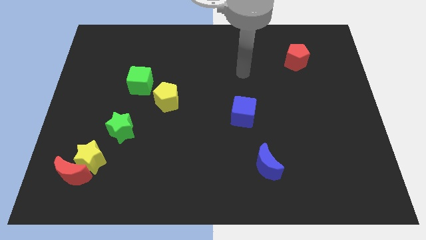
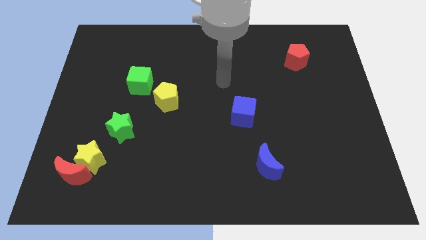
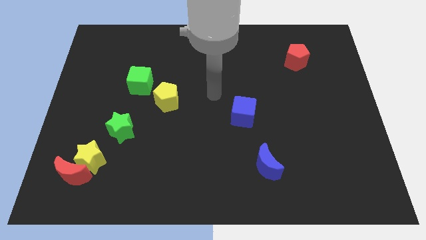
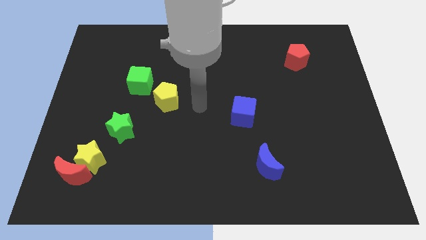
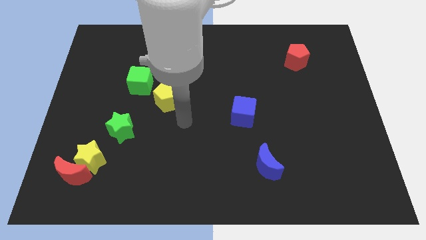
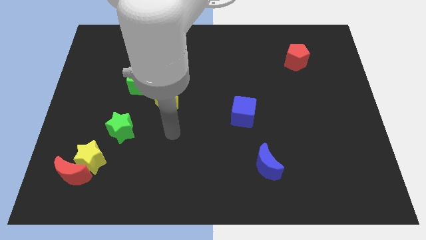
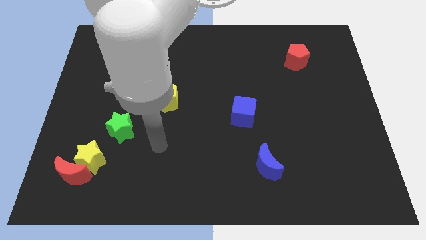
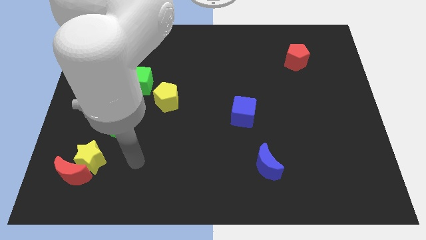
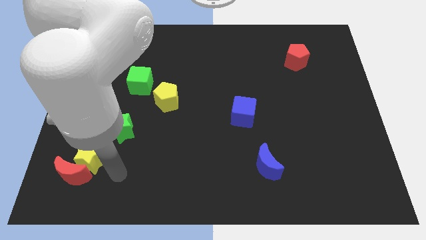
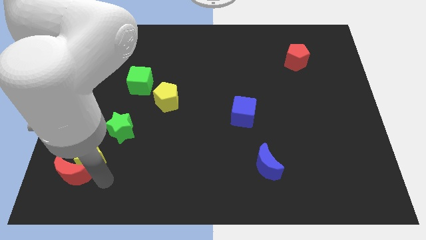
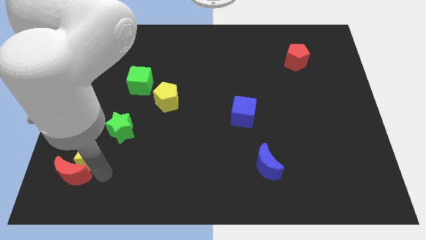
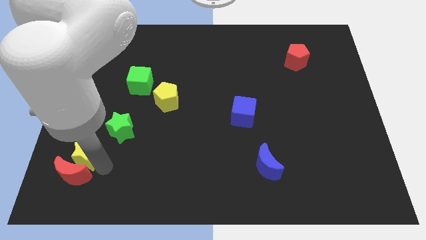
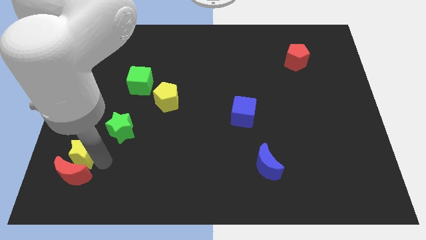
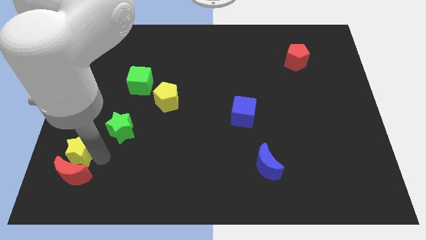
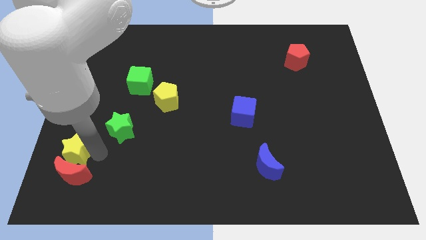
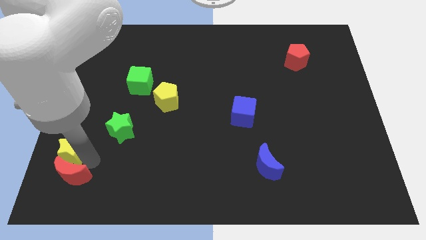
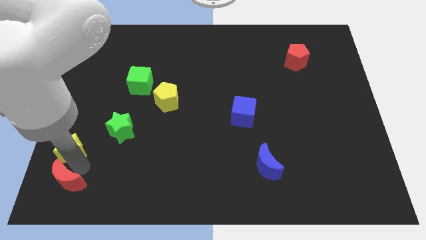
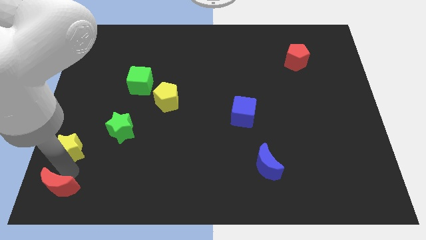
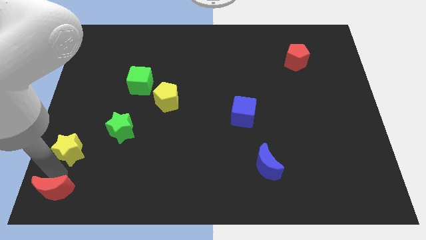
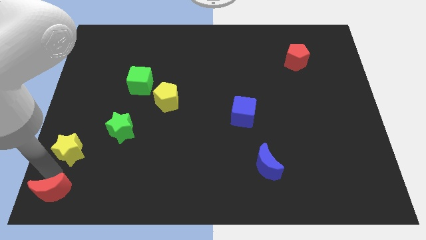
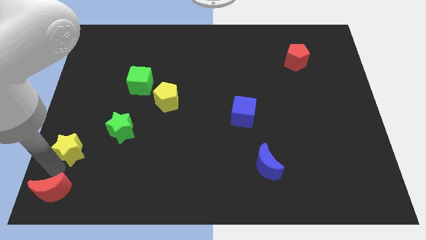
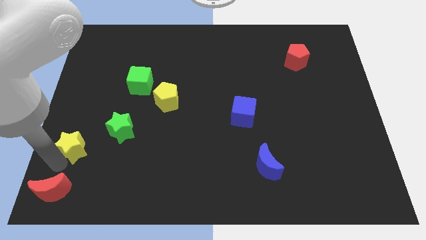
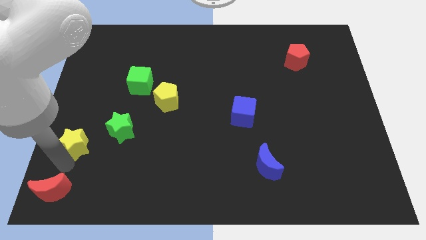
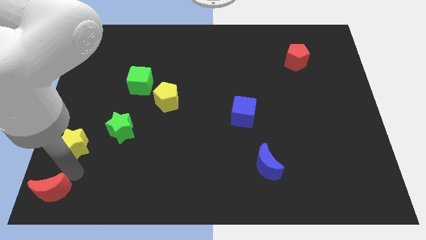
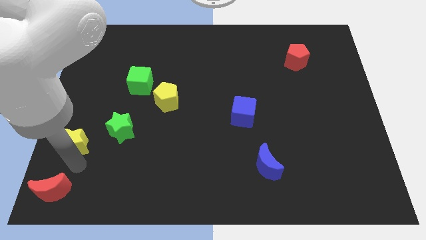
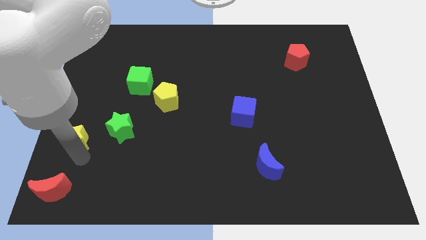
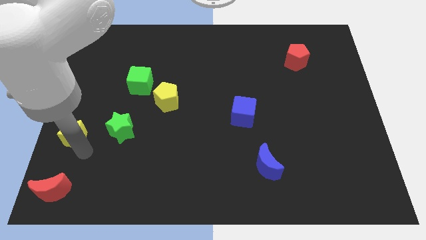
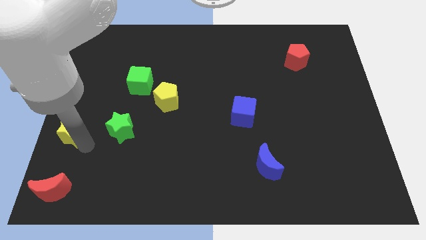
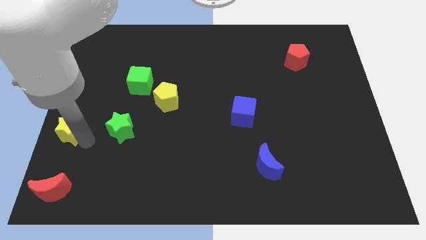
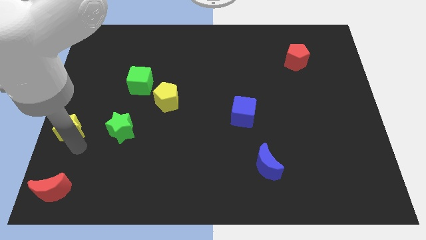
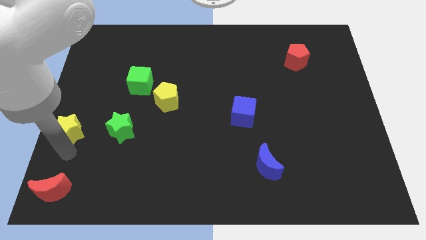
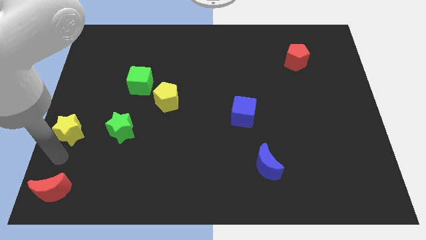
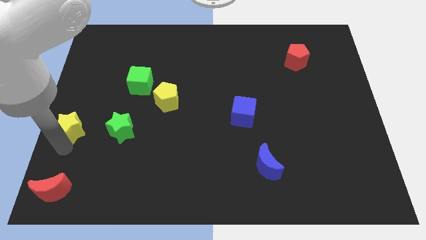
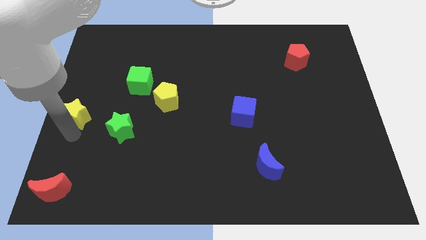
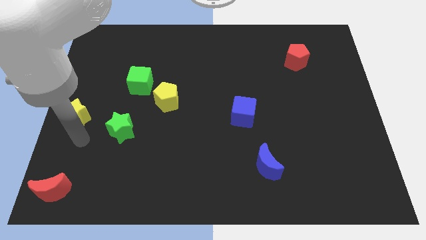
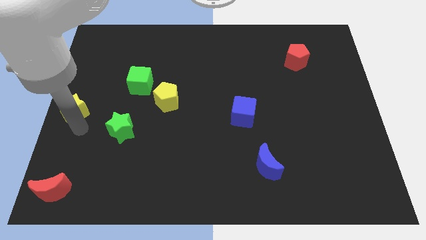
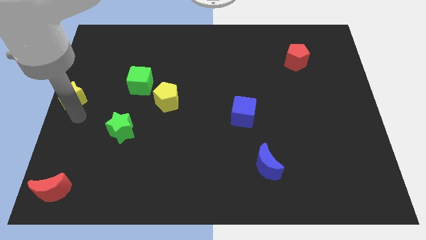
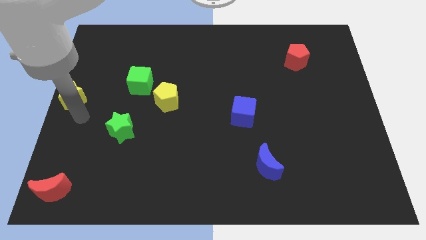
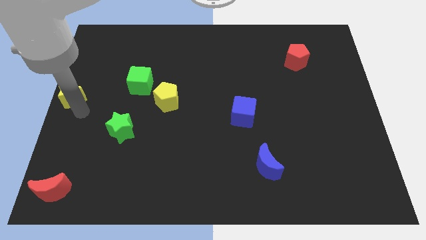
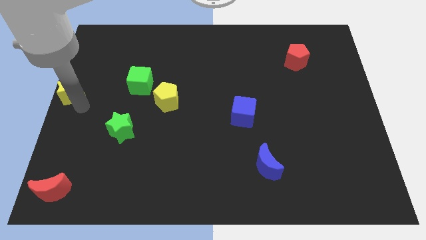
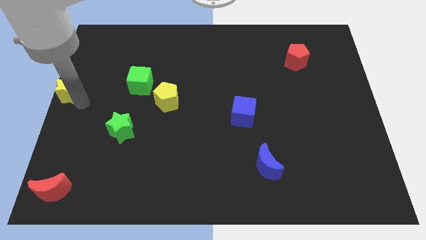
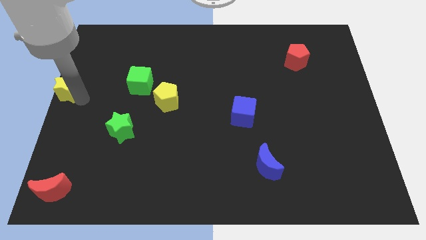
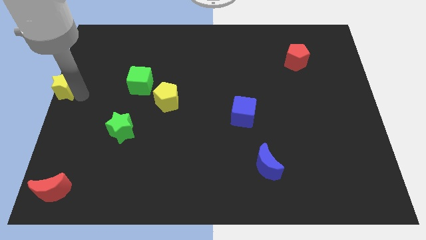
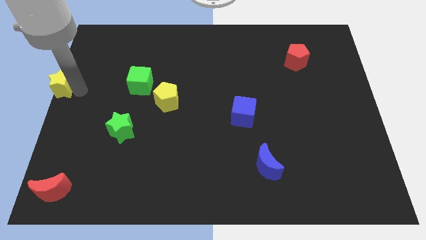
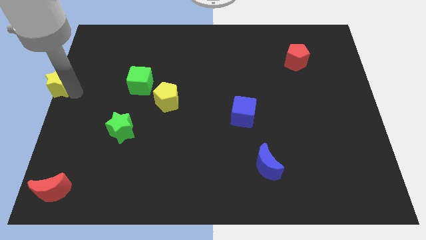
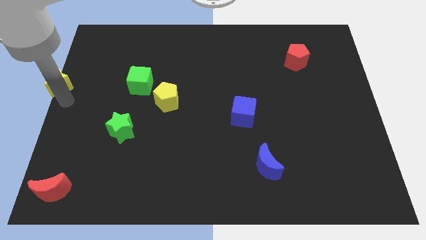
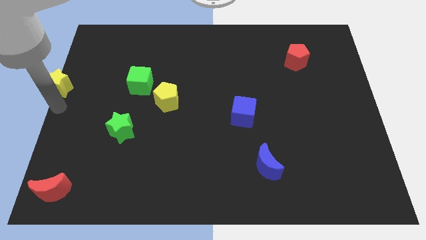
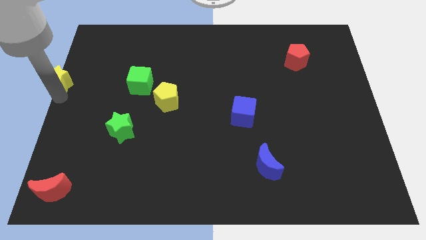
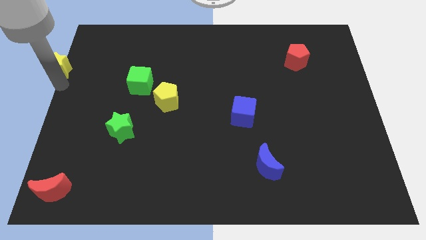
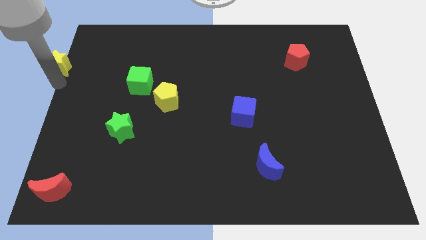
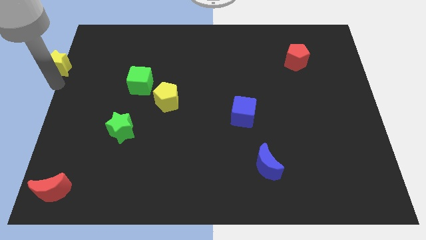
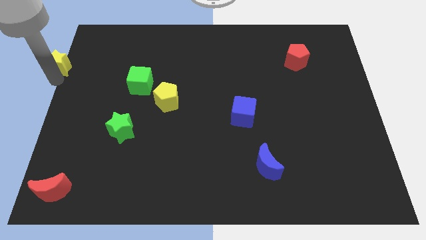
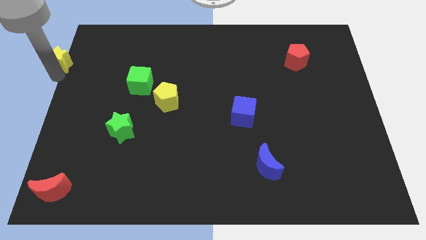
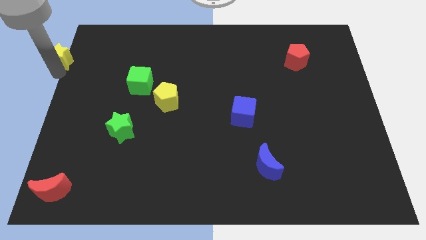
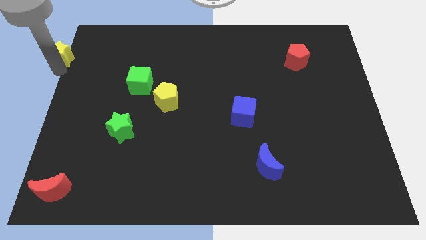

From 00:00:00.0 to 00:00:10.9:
move the yellow star to the upper left corner

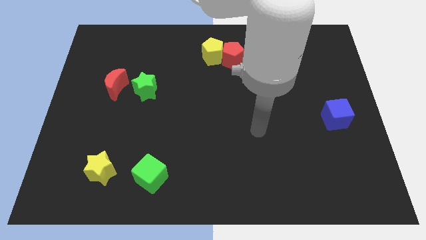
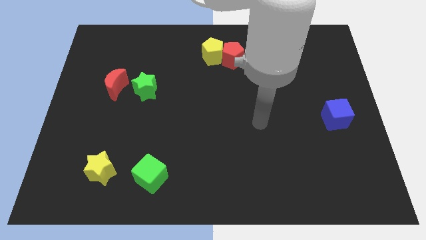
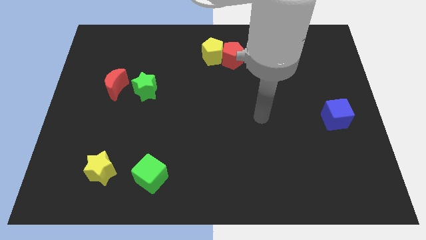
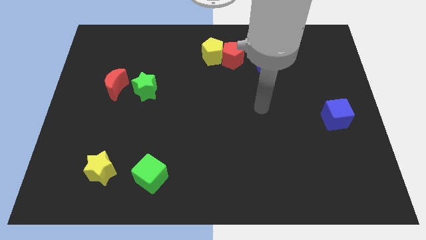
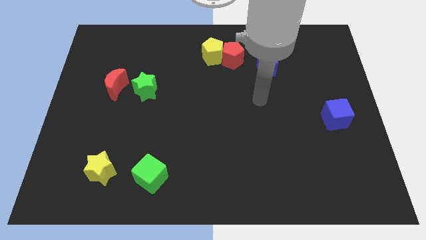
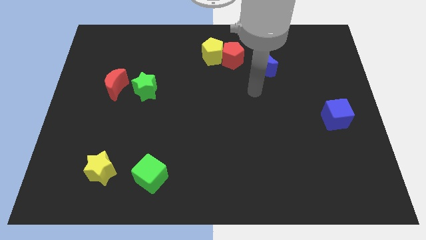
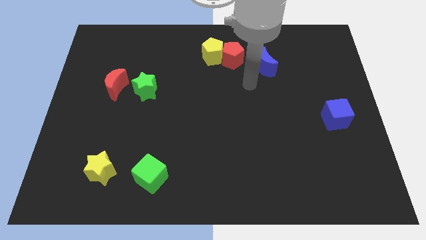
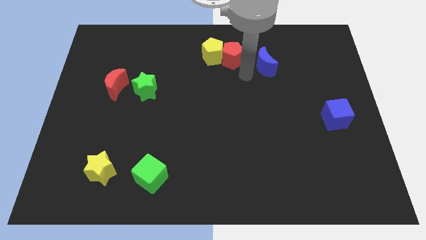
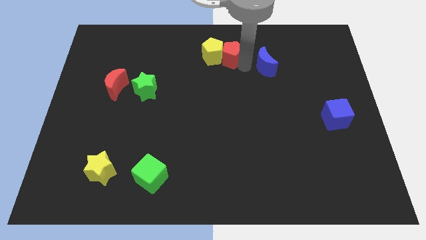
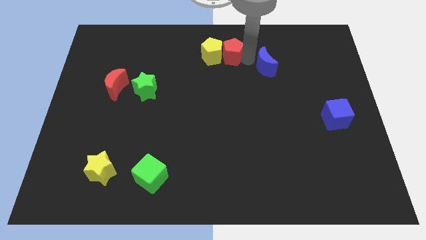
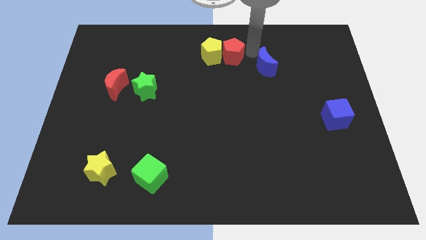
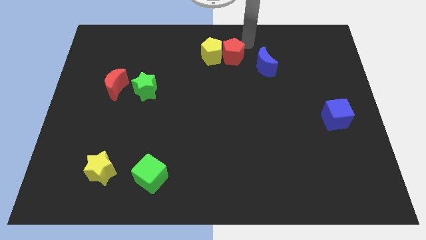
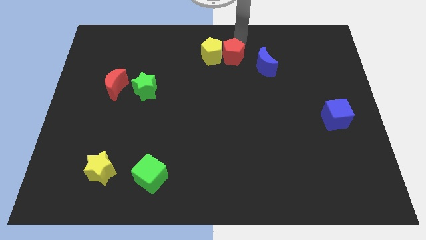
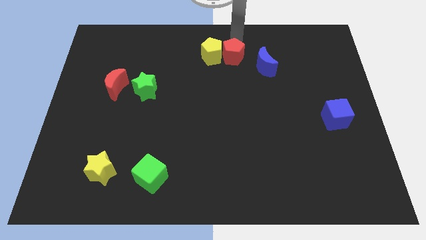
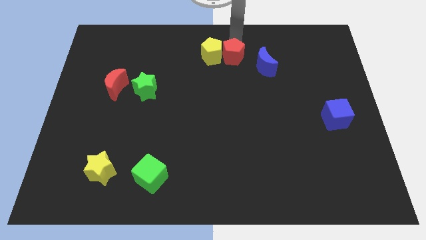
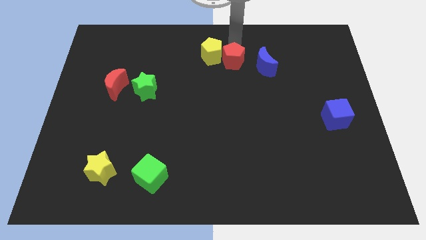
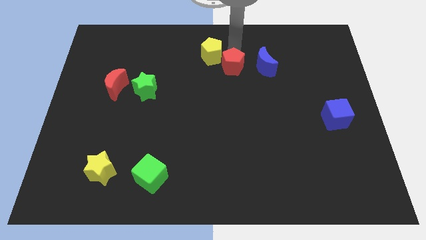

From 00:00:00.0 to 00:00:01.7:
push the red pentagon to the center
